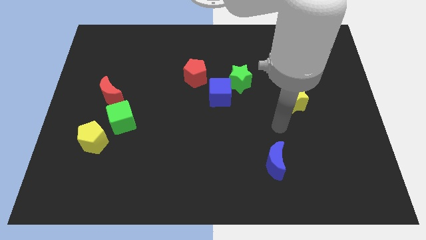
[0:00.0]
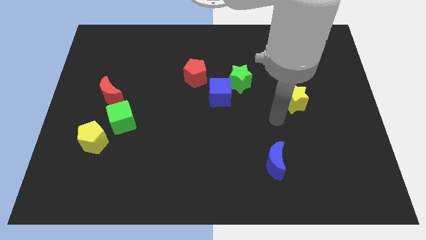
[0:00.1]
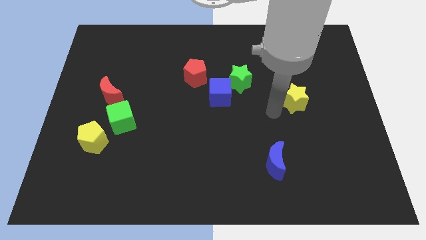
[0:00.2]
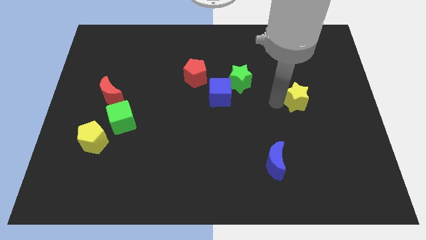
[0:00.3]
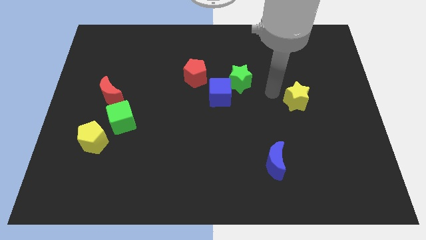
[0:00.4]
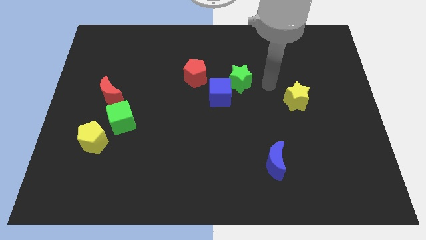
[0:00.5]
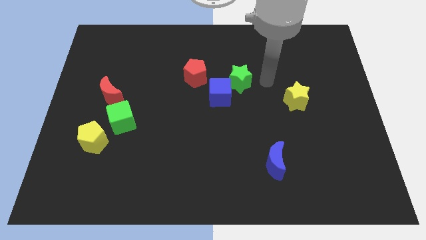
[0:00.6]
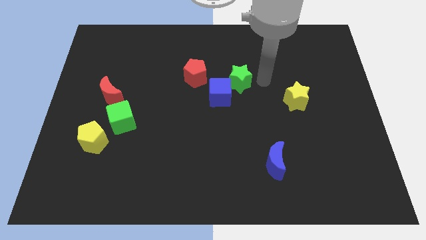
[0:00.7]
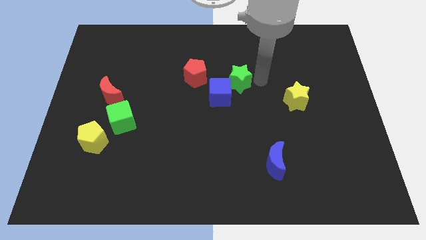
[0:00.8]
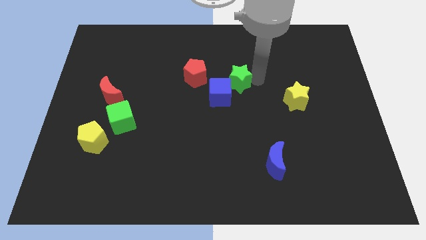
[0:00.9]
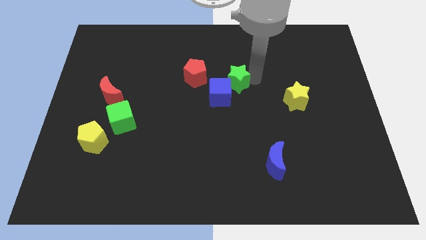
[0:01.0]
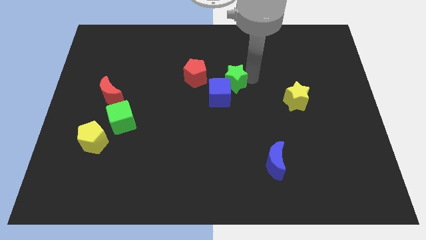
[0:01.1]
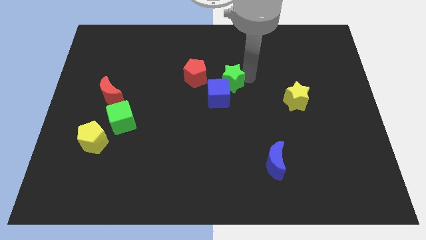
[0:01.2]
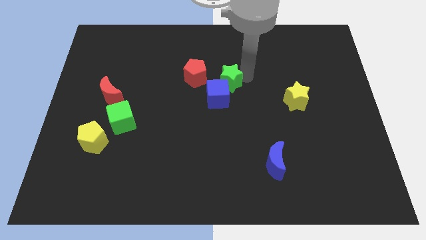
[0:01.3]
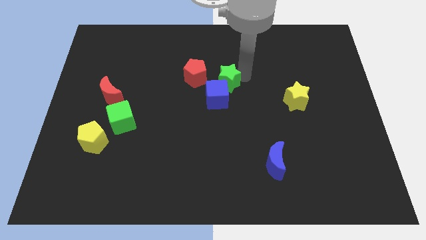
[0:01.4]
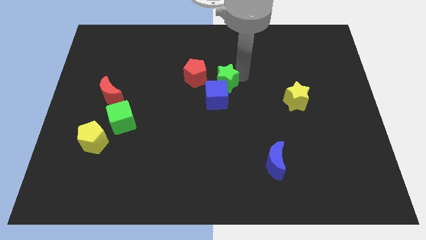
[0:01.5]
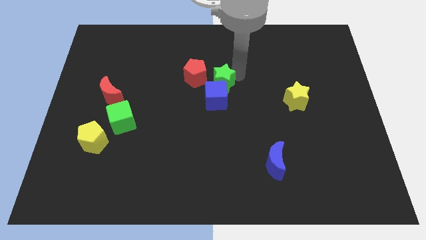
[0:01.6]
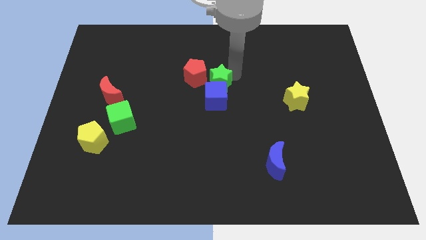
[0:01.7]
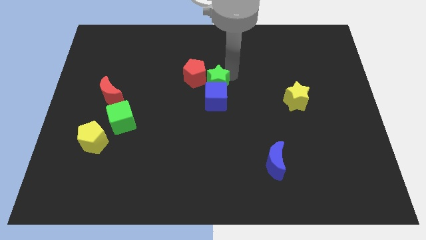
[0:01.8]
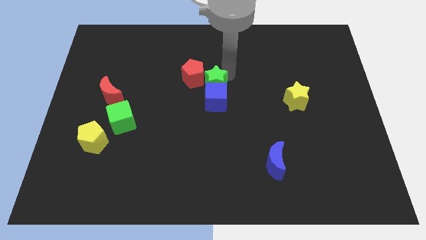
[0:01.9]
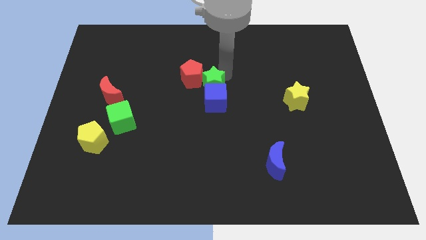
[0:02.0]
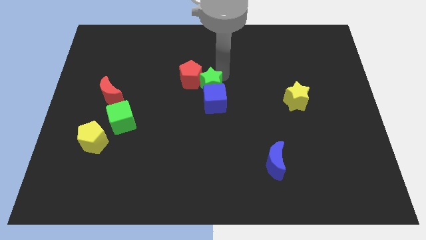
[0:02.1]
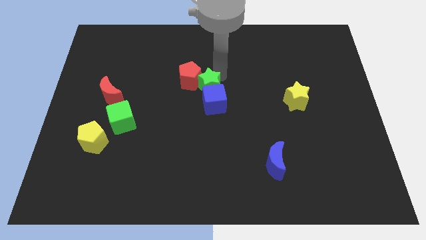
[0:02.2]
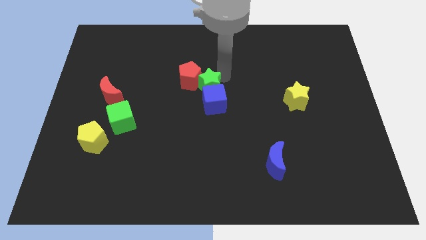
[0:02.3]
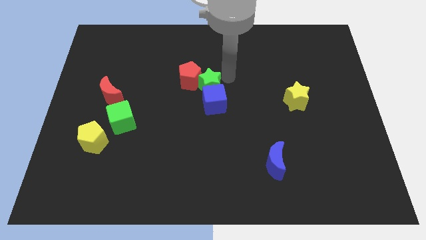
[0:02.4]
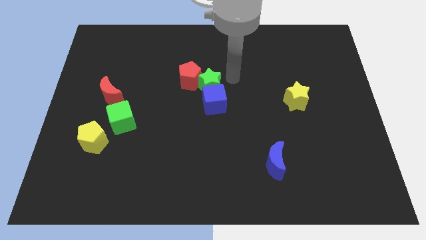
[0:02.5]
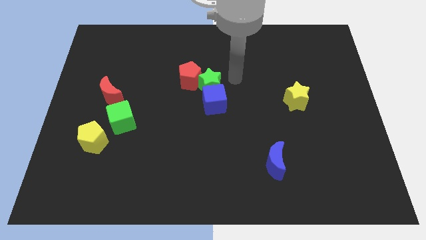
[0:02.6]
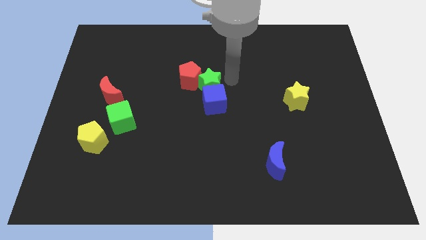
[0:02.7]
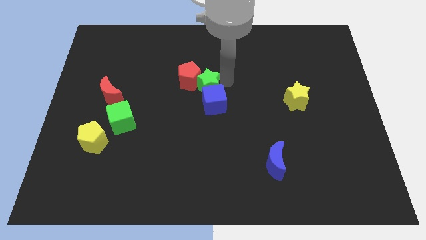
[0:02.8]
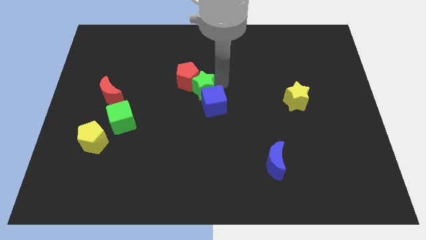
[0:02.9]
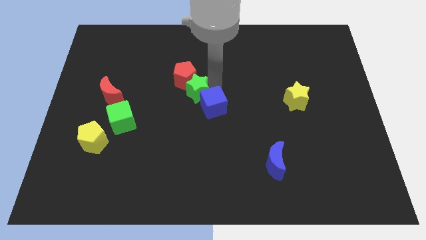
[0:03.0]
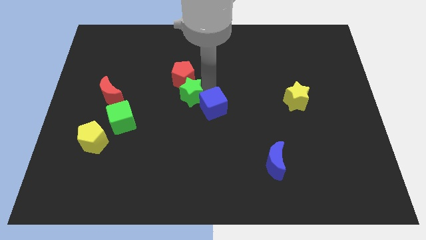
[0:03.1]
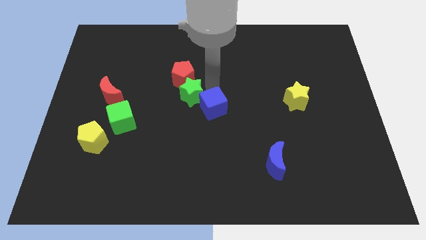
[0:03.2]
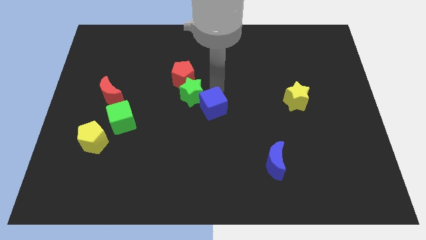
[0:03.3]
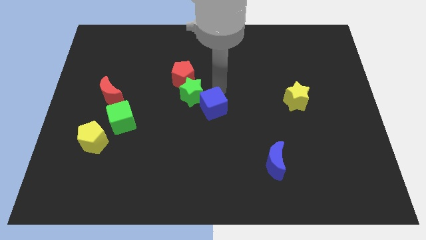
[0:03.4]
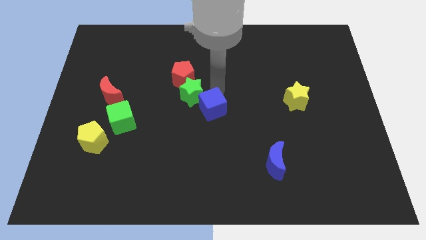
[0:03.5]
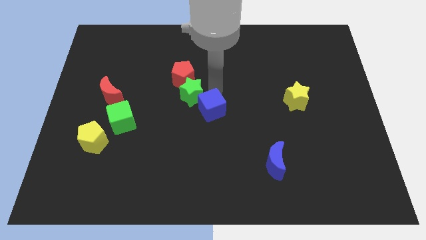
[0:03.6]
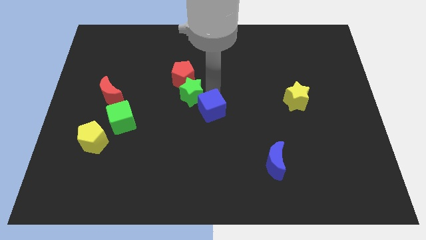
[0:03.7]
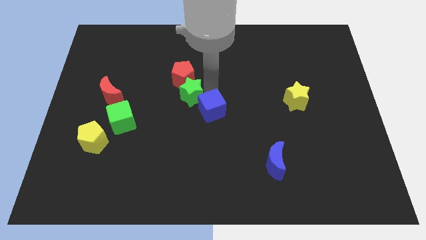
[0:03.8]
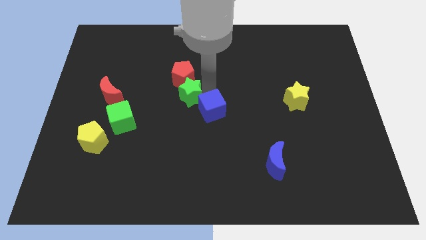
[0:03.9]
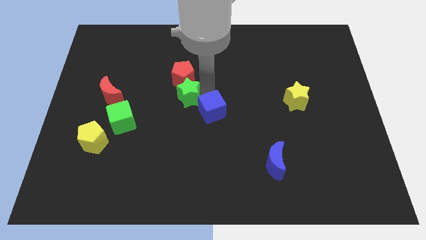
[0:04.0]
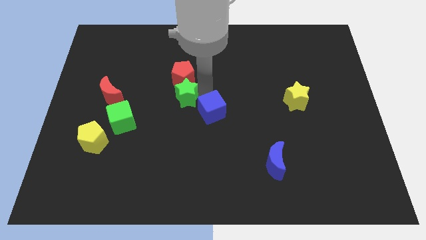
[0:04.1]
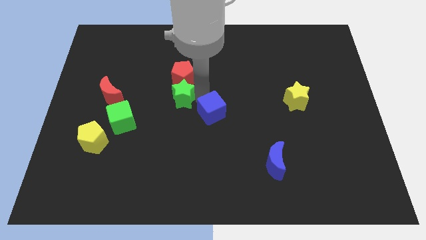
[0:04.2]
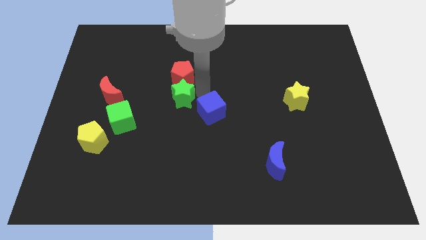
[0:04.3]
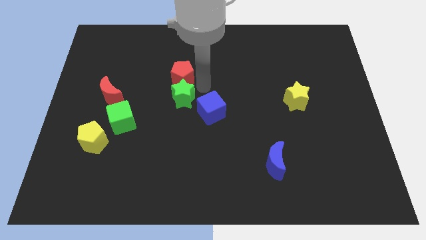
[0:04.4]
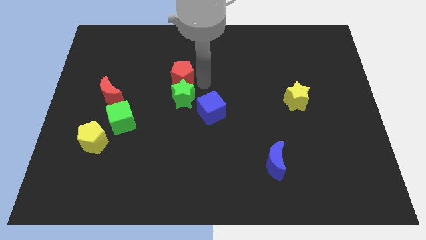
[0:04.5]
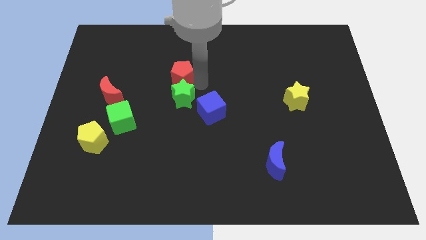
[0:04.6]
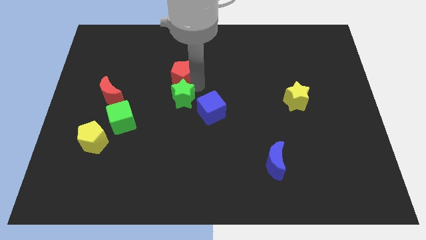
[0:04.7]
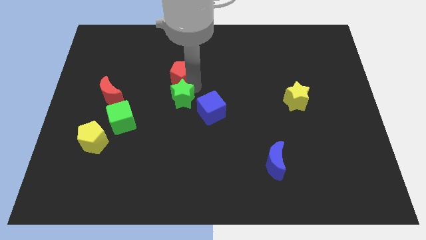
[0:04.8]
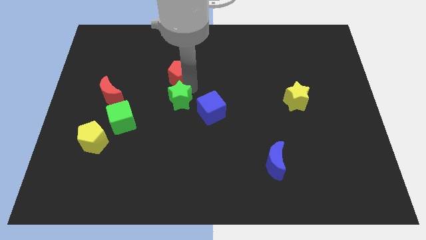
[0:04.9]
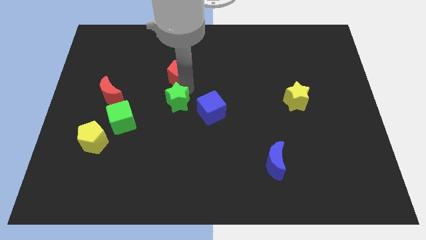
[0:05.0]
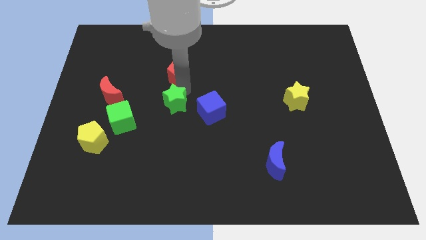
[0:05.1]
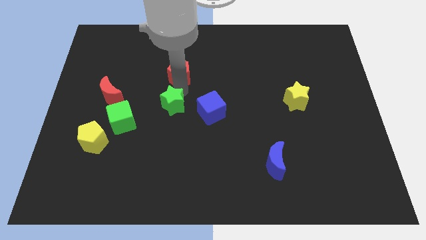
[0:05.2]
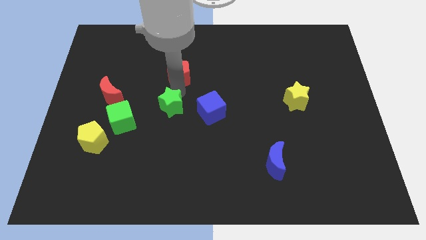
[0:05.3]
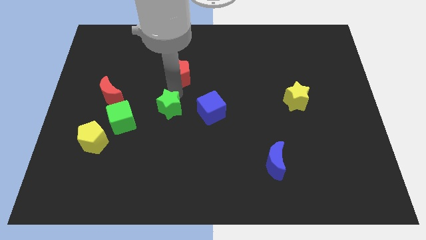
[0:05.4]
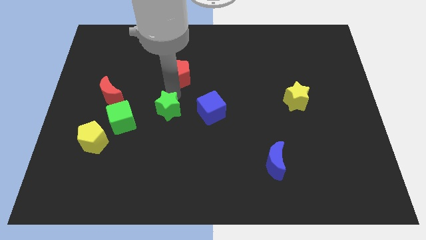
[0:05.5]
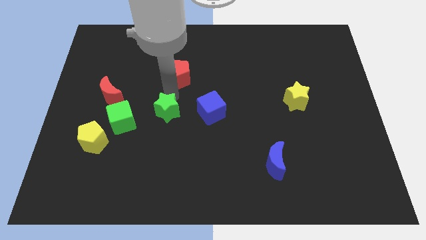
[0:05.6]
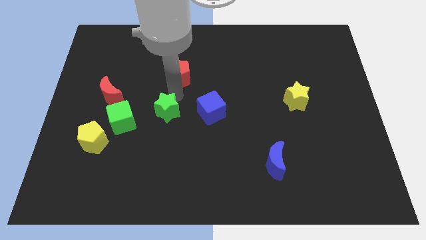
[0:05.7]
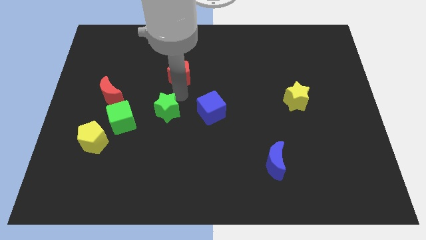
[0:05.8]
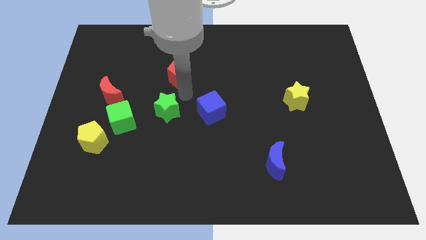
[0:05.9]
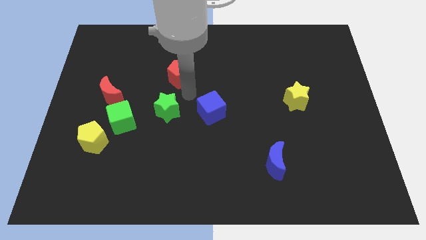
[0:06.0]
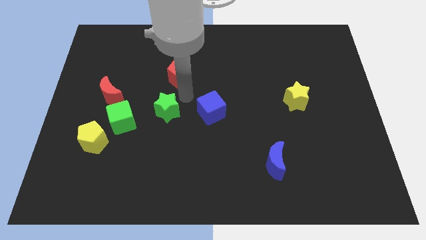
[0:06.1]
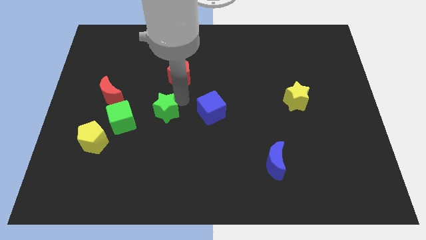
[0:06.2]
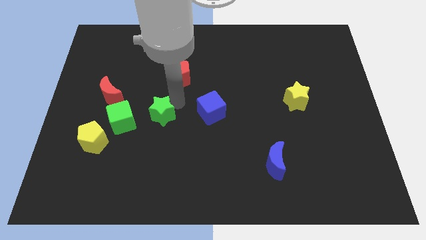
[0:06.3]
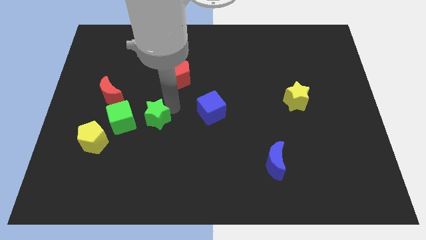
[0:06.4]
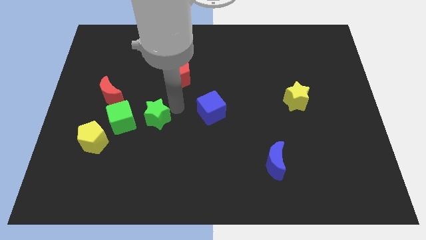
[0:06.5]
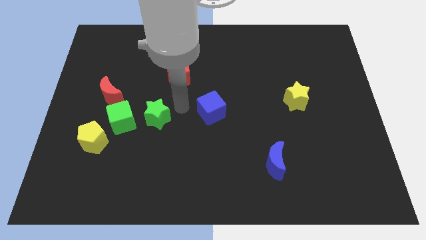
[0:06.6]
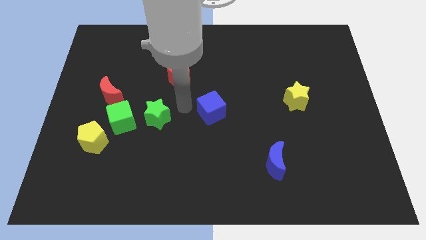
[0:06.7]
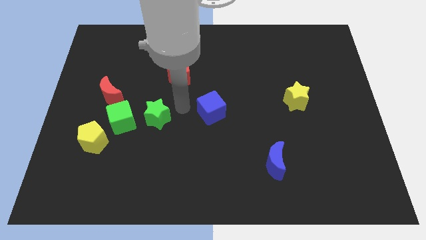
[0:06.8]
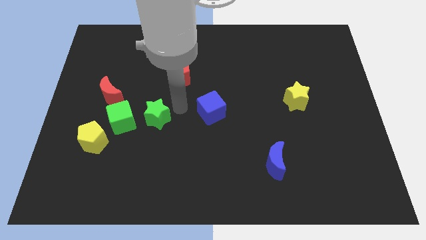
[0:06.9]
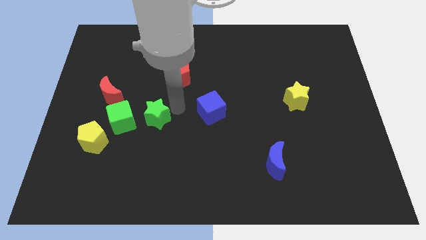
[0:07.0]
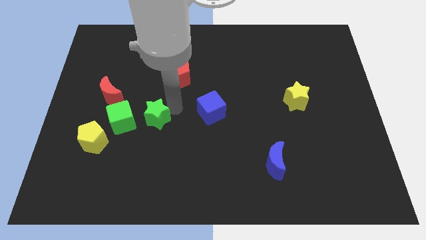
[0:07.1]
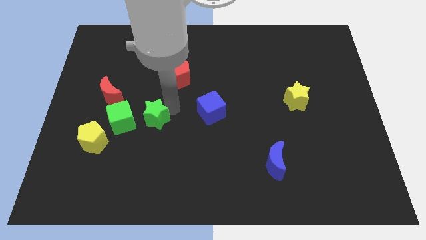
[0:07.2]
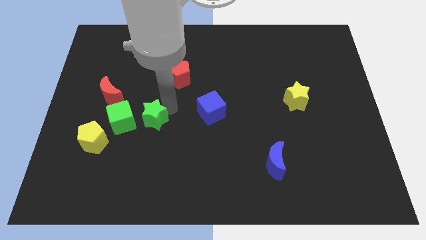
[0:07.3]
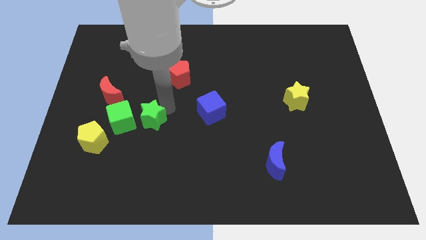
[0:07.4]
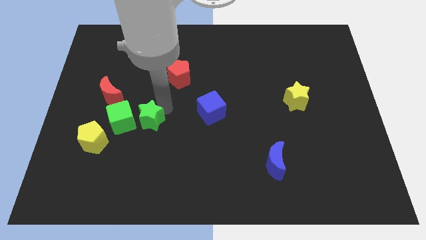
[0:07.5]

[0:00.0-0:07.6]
move the green star to the bottom right side of the red moon
